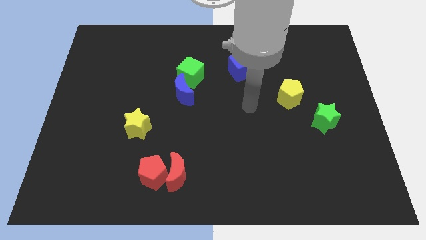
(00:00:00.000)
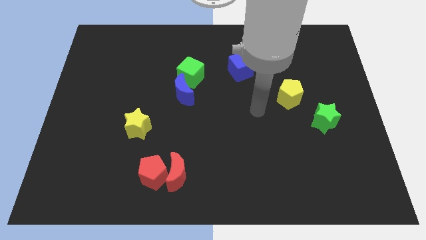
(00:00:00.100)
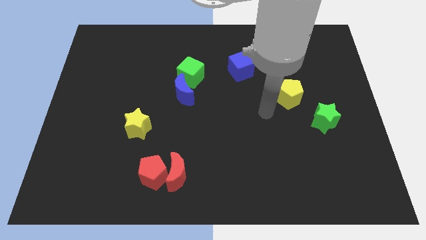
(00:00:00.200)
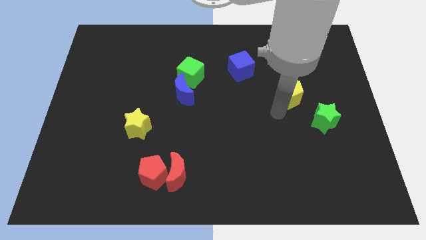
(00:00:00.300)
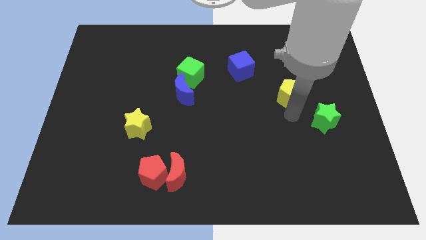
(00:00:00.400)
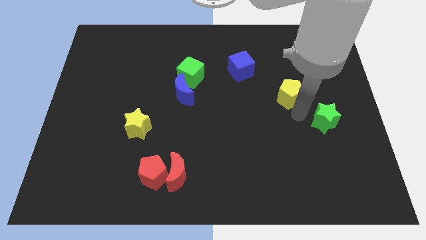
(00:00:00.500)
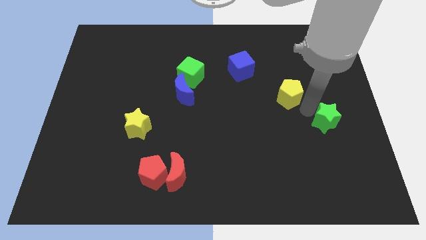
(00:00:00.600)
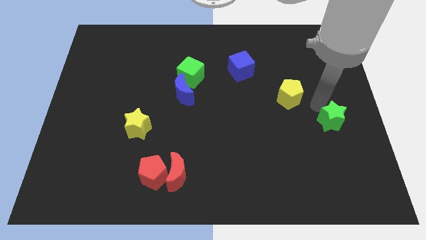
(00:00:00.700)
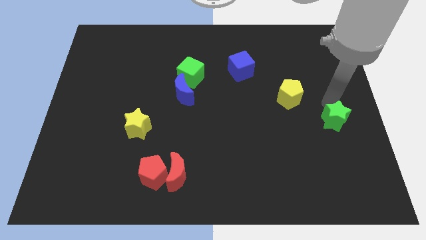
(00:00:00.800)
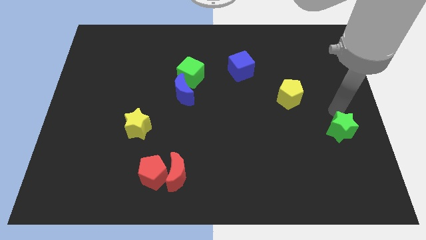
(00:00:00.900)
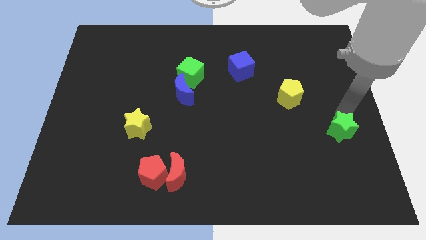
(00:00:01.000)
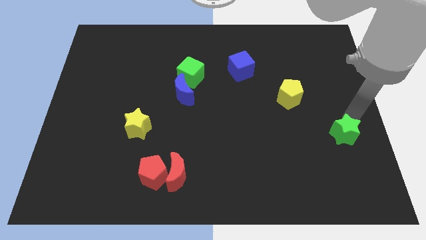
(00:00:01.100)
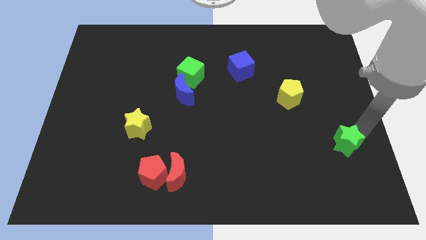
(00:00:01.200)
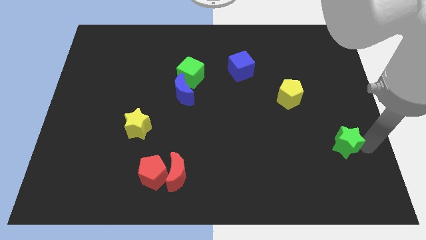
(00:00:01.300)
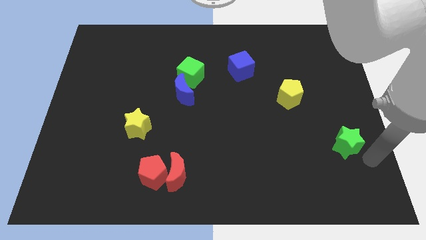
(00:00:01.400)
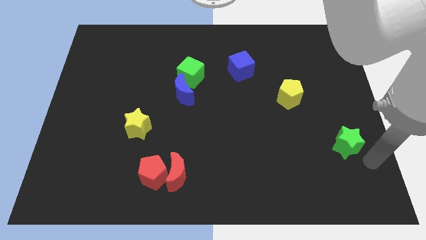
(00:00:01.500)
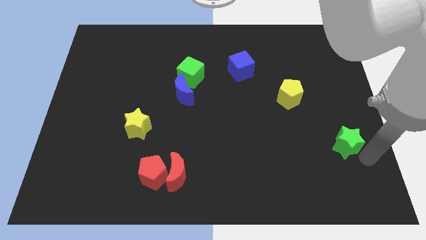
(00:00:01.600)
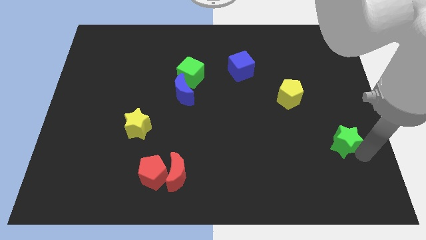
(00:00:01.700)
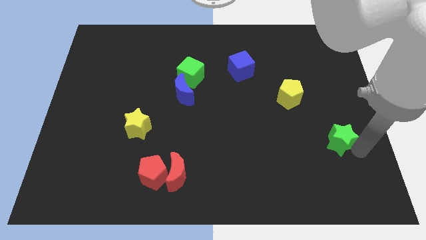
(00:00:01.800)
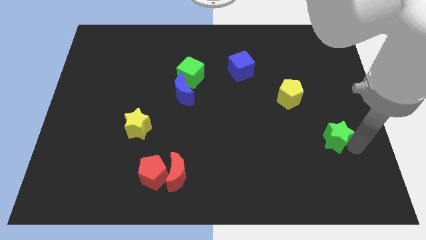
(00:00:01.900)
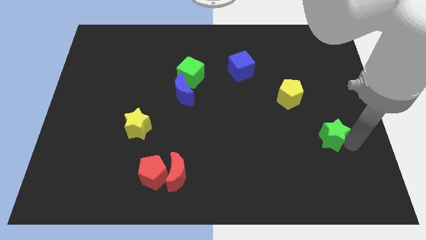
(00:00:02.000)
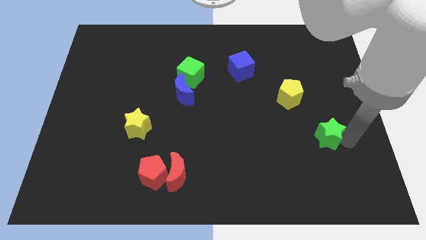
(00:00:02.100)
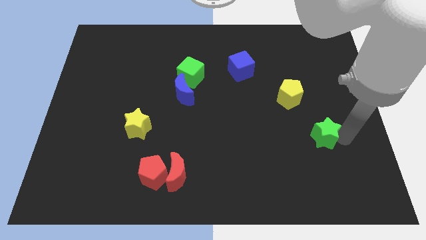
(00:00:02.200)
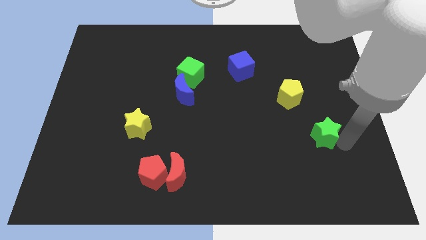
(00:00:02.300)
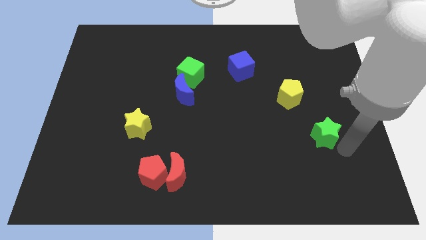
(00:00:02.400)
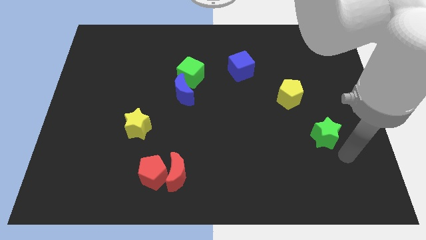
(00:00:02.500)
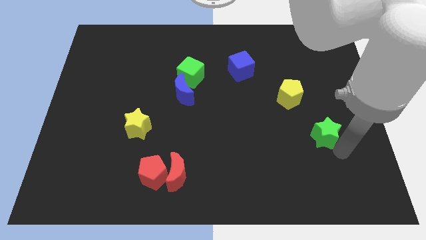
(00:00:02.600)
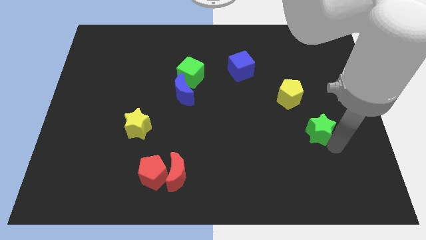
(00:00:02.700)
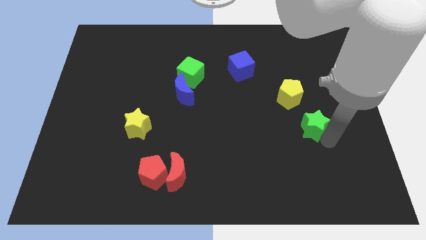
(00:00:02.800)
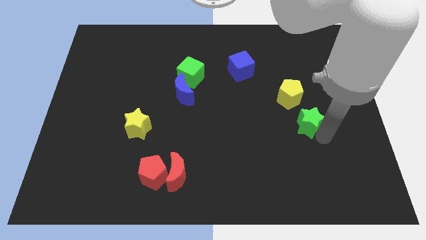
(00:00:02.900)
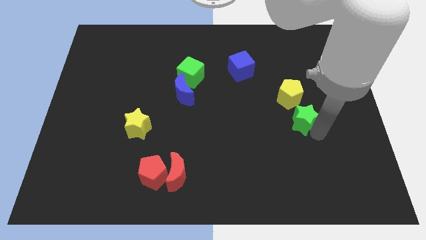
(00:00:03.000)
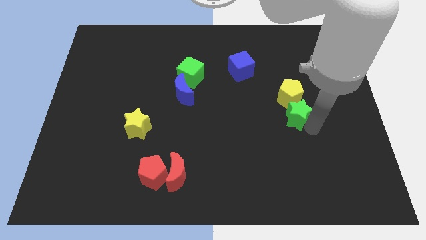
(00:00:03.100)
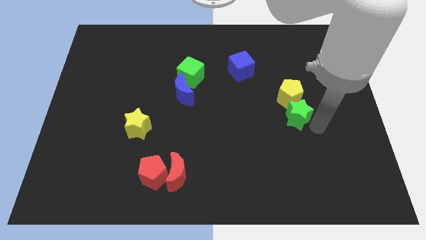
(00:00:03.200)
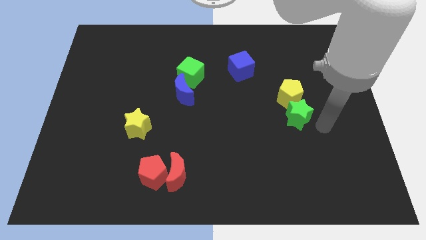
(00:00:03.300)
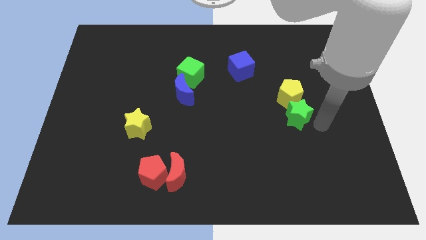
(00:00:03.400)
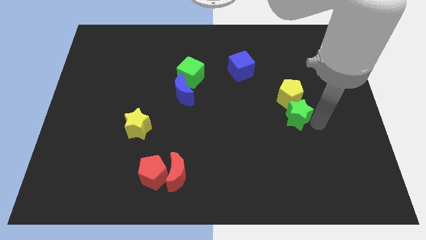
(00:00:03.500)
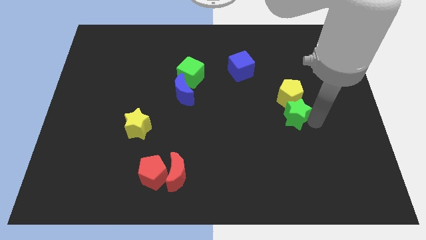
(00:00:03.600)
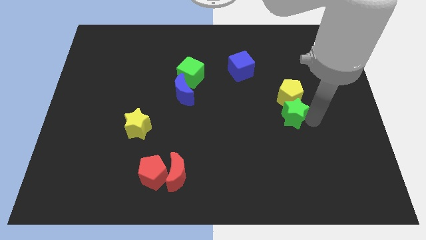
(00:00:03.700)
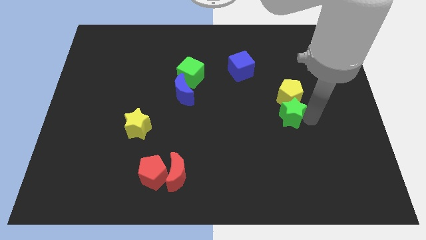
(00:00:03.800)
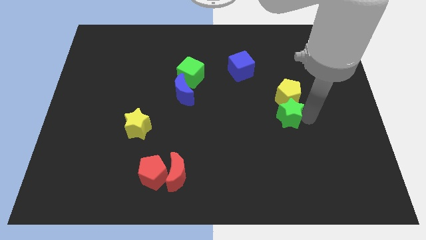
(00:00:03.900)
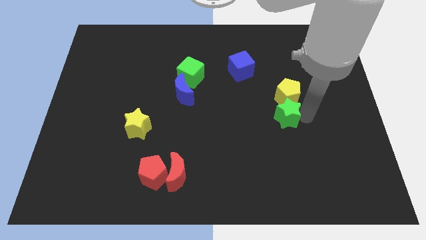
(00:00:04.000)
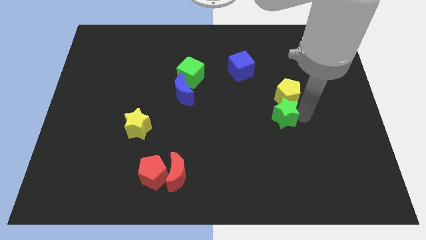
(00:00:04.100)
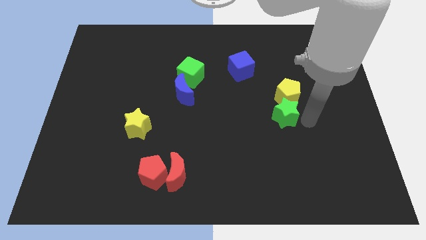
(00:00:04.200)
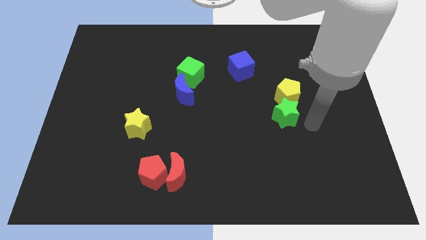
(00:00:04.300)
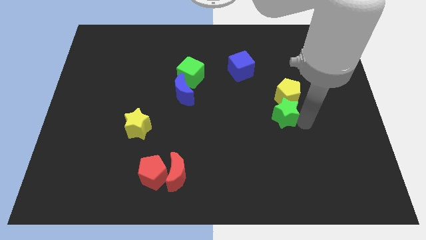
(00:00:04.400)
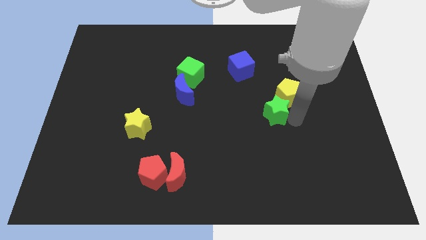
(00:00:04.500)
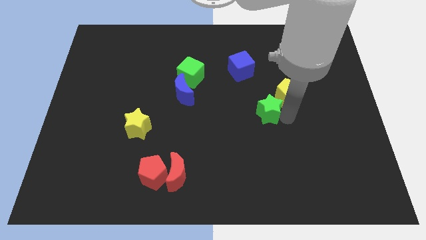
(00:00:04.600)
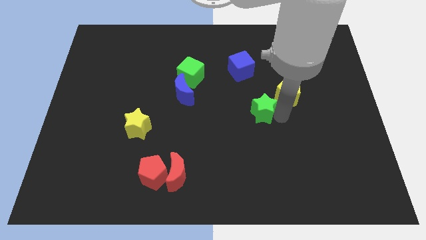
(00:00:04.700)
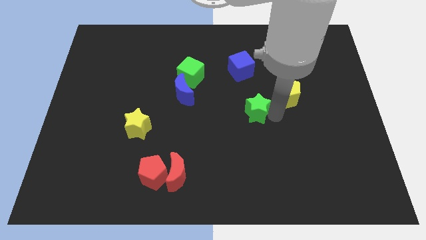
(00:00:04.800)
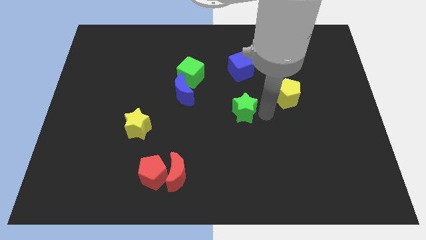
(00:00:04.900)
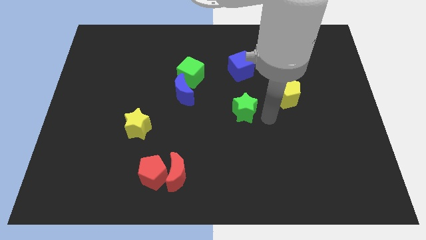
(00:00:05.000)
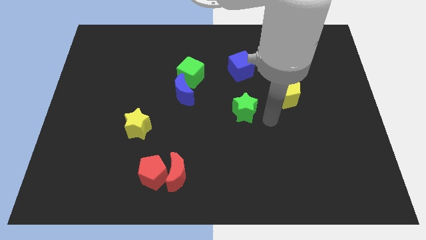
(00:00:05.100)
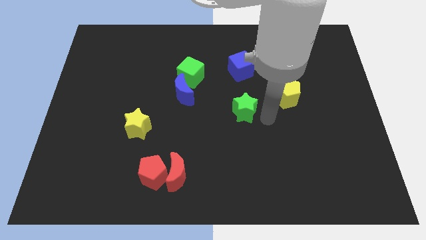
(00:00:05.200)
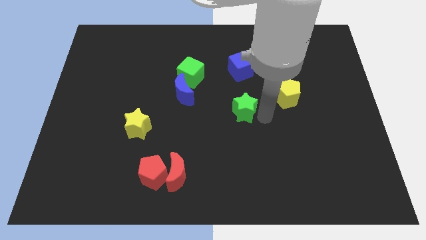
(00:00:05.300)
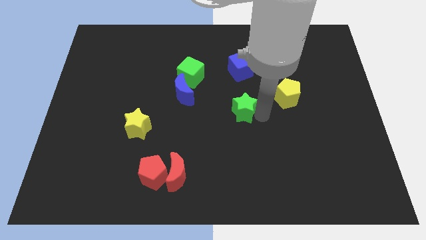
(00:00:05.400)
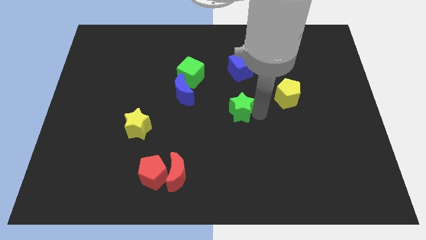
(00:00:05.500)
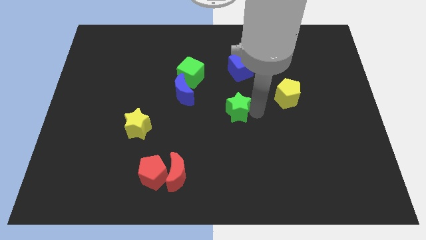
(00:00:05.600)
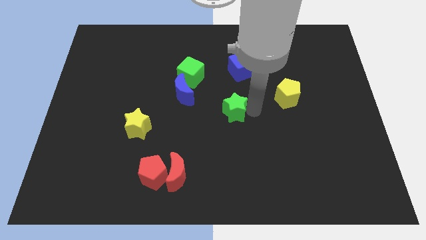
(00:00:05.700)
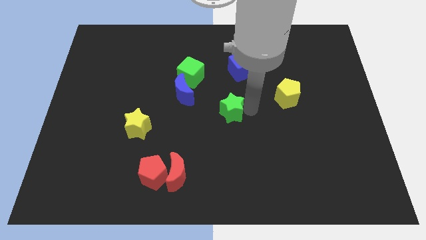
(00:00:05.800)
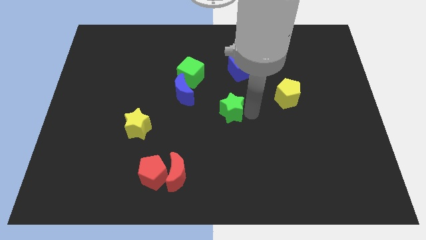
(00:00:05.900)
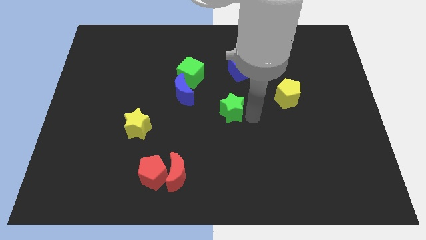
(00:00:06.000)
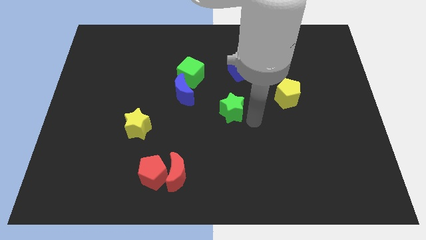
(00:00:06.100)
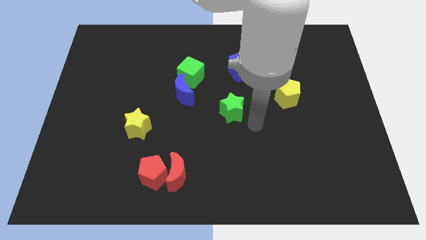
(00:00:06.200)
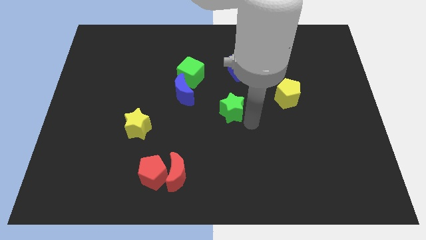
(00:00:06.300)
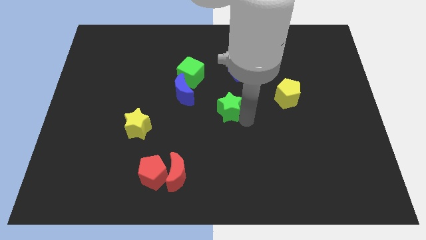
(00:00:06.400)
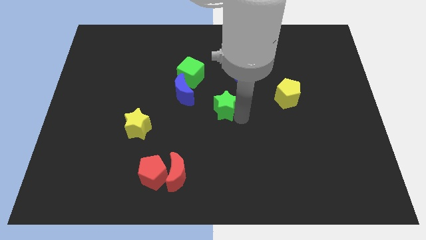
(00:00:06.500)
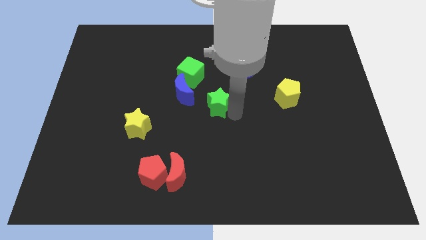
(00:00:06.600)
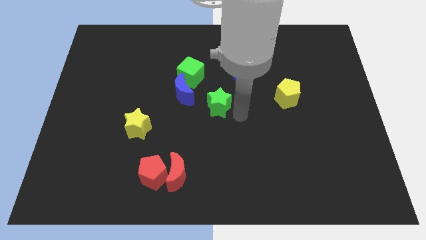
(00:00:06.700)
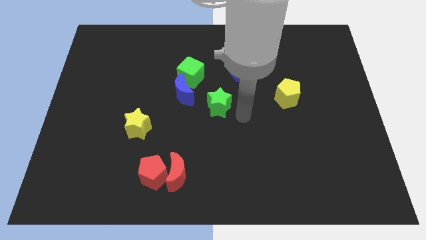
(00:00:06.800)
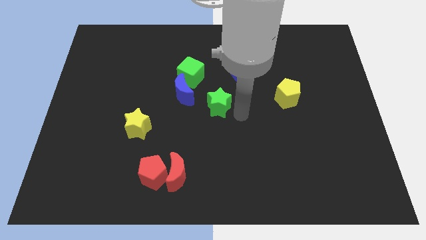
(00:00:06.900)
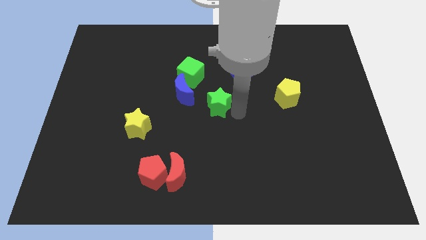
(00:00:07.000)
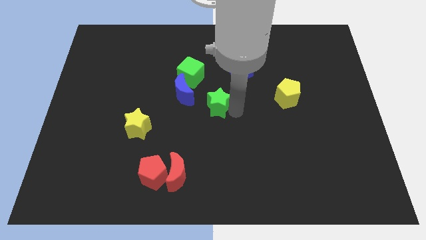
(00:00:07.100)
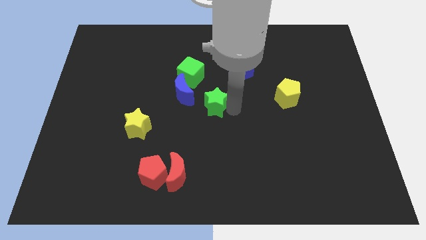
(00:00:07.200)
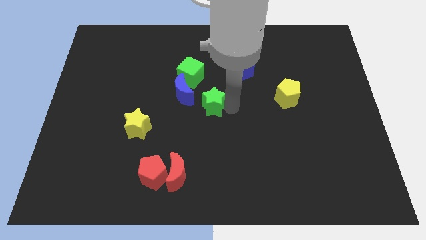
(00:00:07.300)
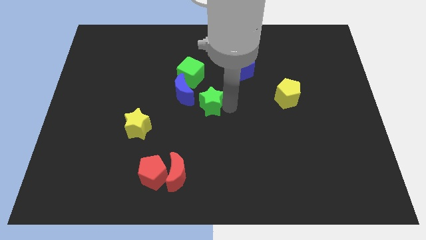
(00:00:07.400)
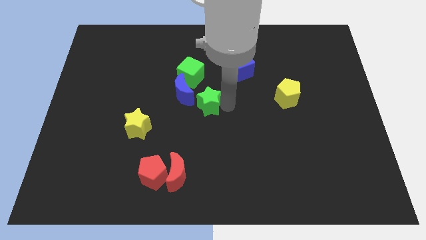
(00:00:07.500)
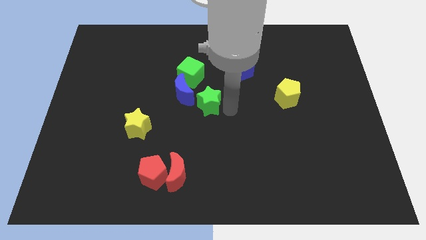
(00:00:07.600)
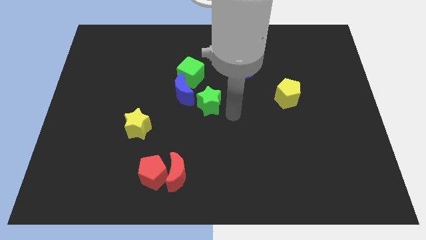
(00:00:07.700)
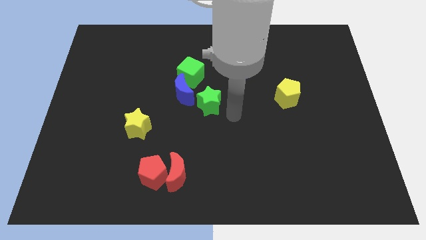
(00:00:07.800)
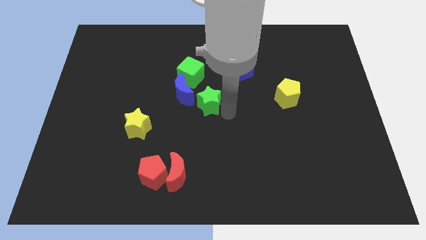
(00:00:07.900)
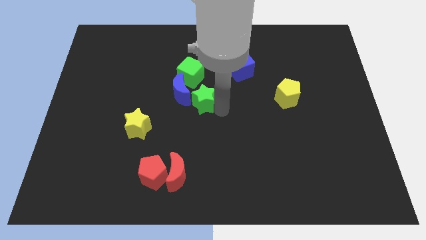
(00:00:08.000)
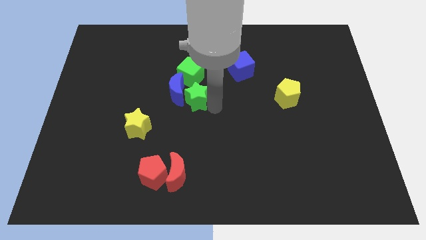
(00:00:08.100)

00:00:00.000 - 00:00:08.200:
slide the green star to the blue moon
